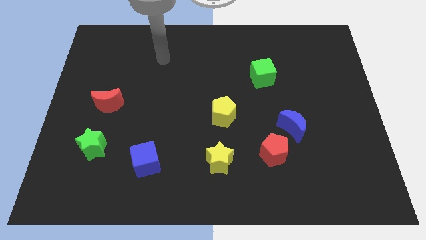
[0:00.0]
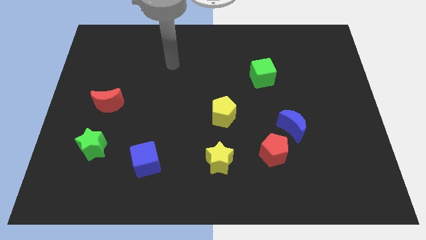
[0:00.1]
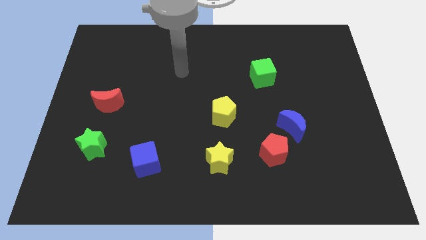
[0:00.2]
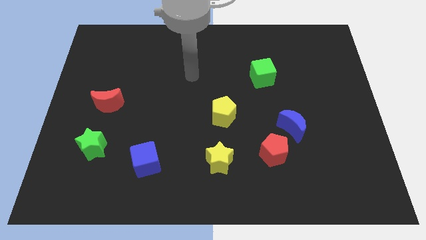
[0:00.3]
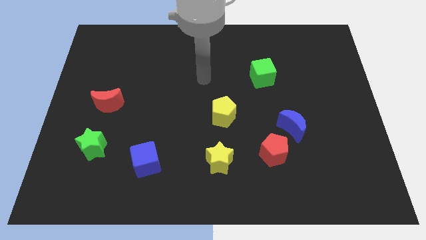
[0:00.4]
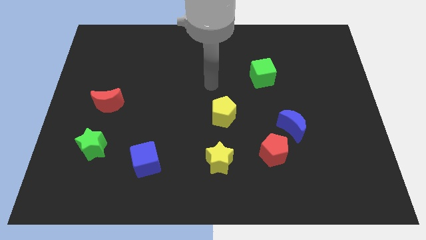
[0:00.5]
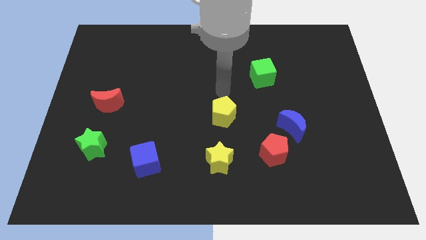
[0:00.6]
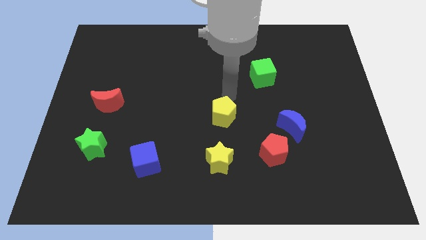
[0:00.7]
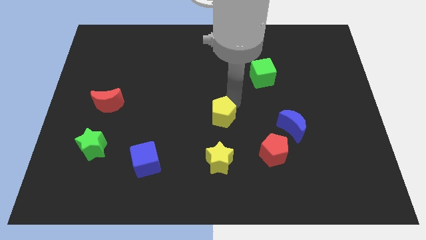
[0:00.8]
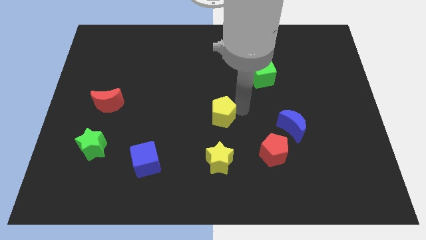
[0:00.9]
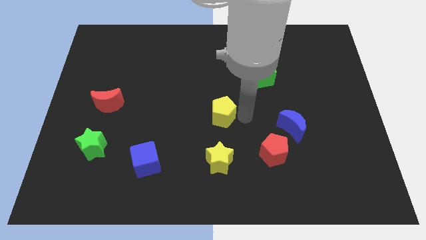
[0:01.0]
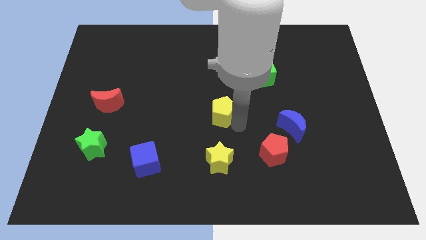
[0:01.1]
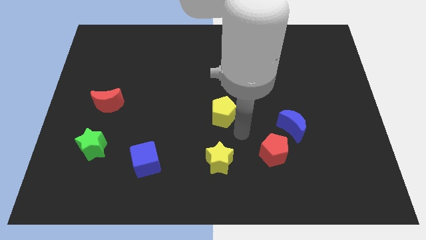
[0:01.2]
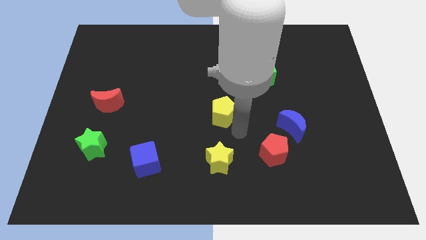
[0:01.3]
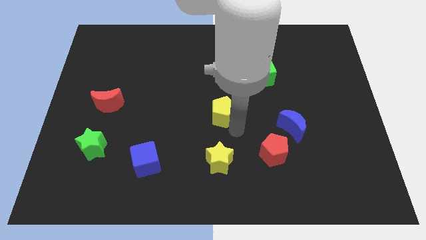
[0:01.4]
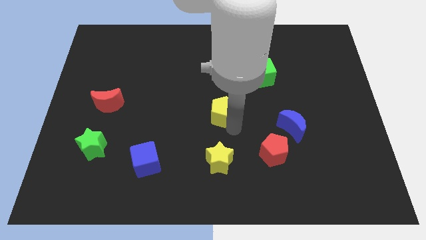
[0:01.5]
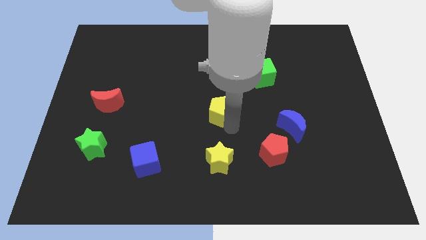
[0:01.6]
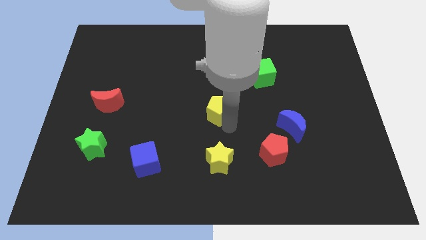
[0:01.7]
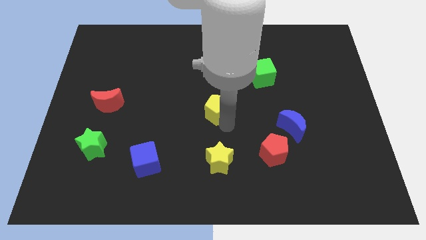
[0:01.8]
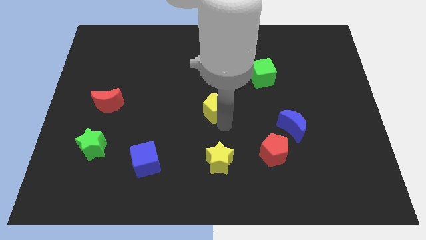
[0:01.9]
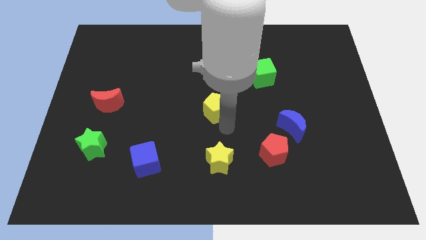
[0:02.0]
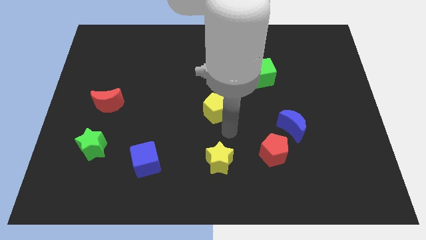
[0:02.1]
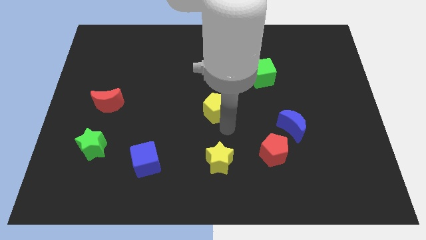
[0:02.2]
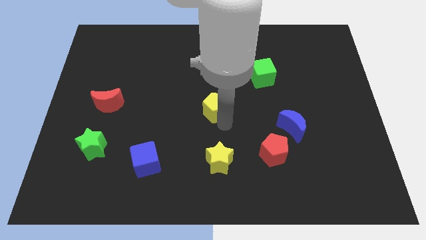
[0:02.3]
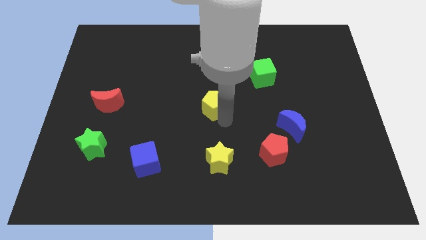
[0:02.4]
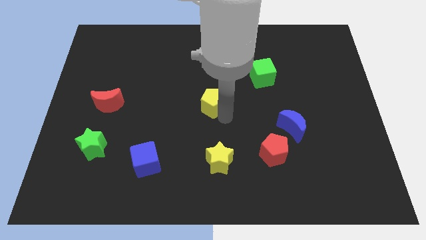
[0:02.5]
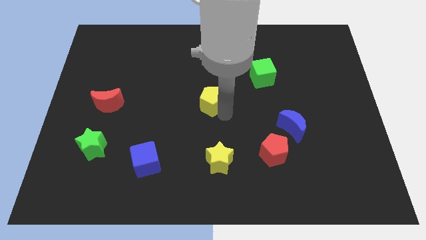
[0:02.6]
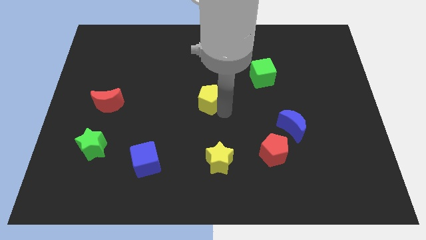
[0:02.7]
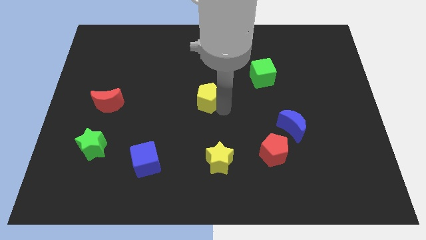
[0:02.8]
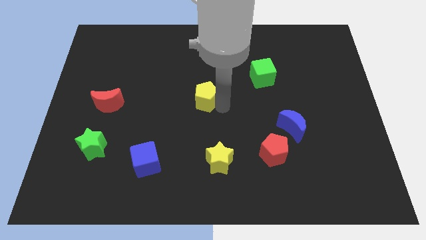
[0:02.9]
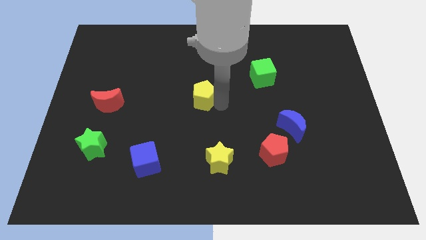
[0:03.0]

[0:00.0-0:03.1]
slide the yellow pentagon diagonally upwards and to the left a little bit

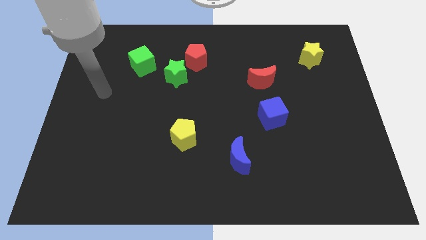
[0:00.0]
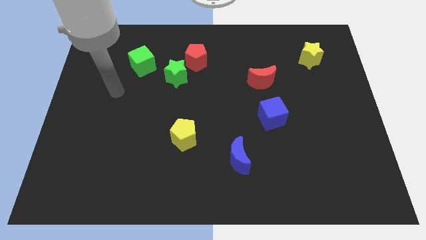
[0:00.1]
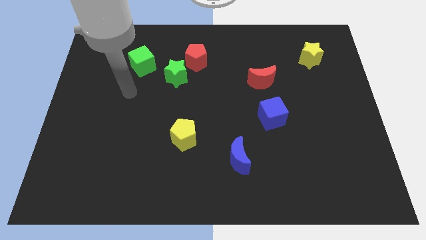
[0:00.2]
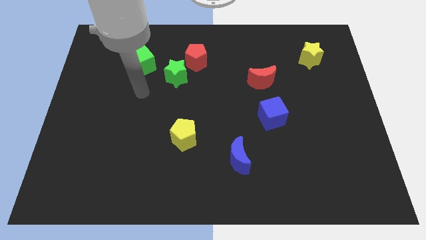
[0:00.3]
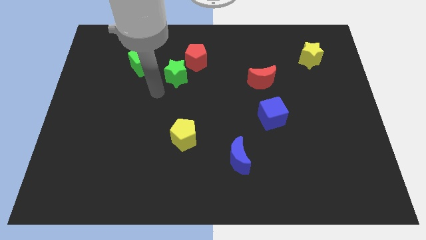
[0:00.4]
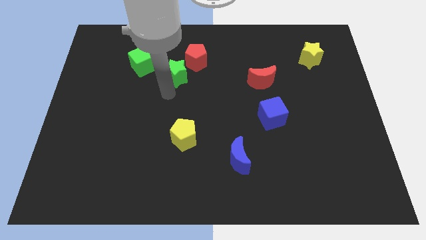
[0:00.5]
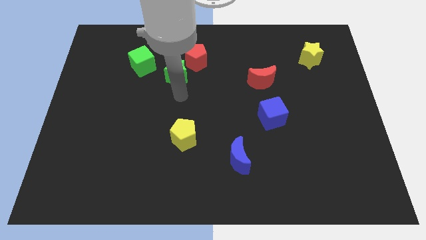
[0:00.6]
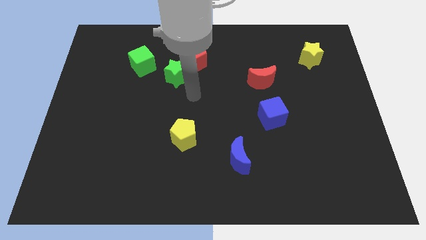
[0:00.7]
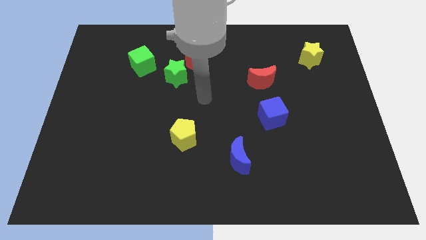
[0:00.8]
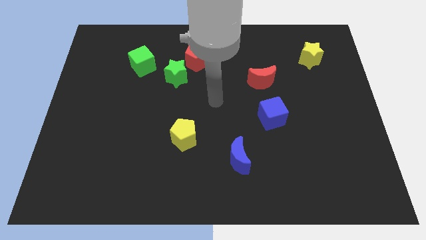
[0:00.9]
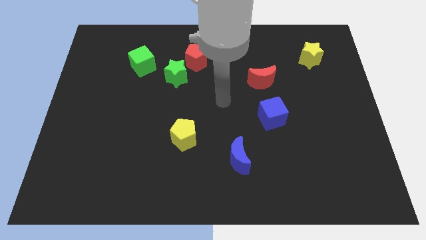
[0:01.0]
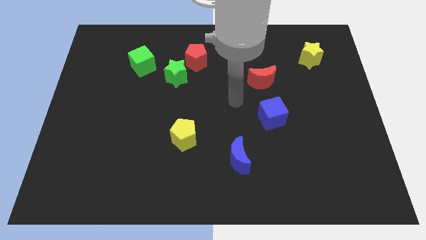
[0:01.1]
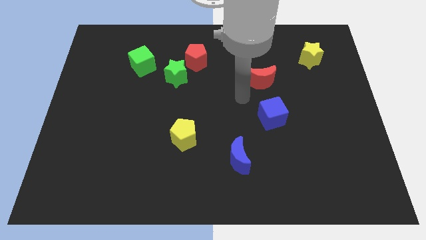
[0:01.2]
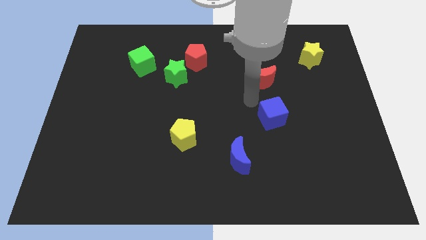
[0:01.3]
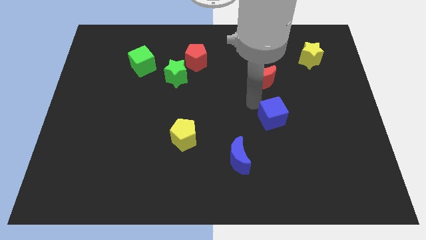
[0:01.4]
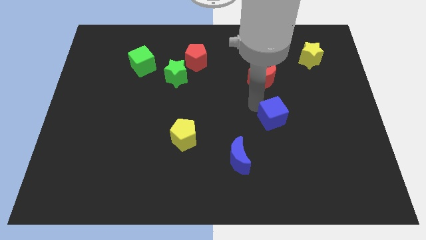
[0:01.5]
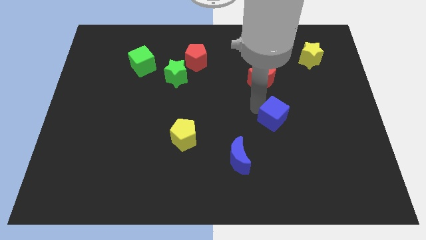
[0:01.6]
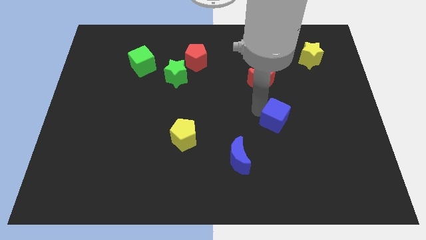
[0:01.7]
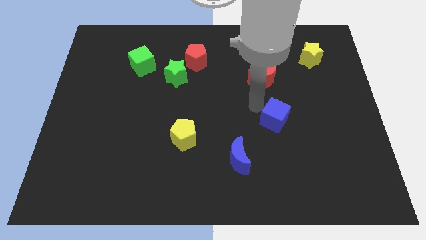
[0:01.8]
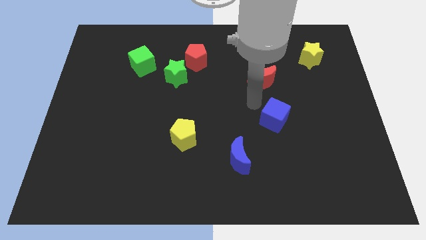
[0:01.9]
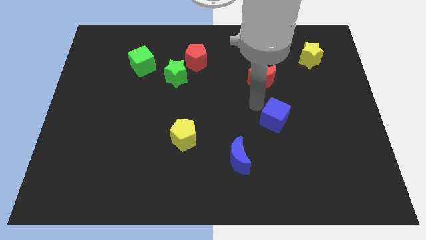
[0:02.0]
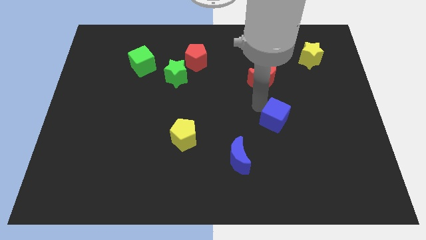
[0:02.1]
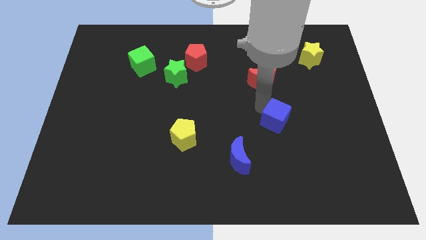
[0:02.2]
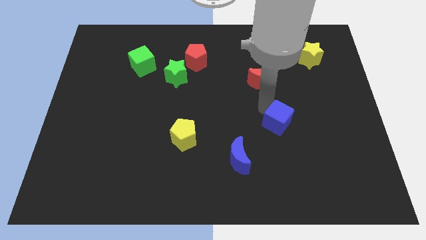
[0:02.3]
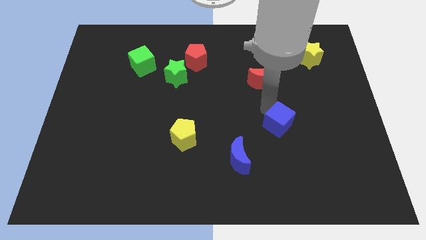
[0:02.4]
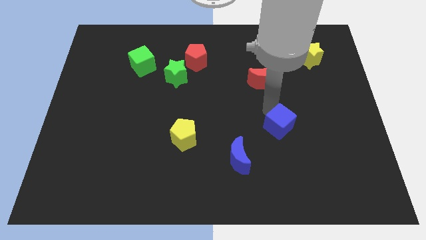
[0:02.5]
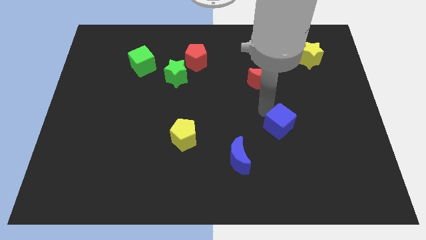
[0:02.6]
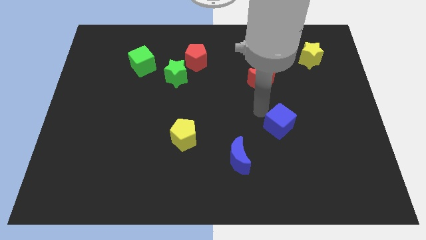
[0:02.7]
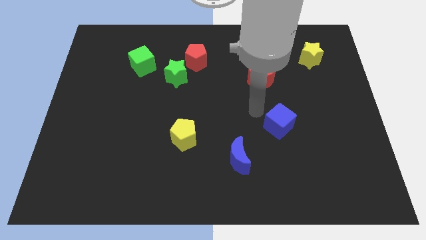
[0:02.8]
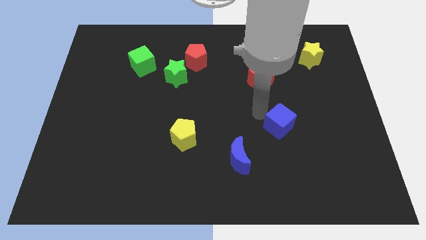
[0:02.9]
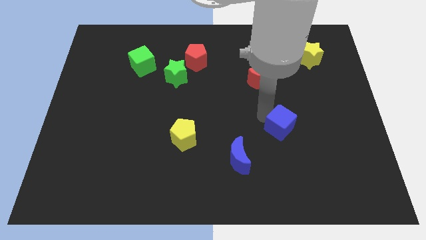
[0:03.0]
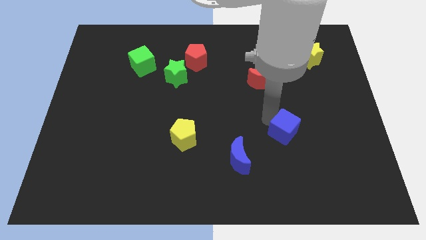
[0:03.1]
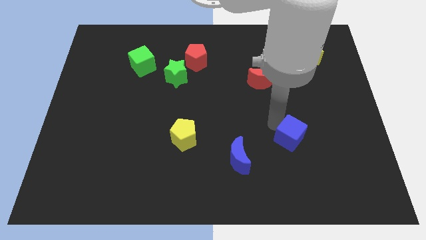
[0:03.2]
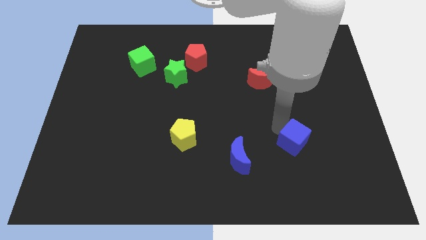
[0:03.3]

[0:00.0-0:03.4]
slide the blue cube a bit down and to the right diagonally

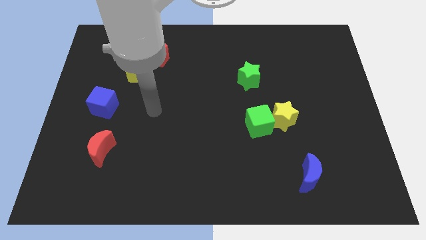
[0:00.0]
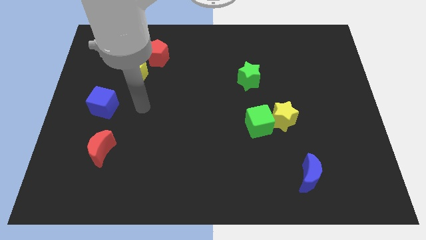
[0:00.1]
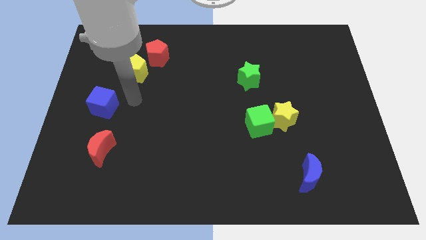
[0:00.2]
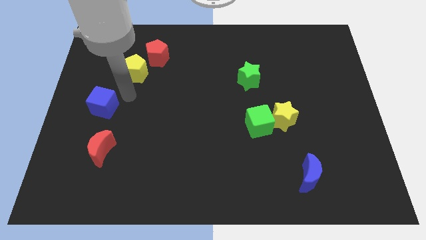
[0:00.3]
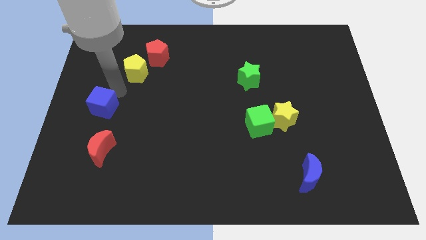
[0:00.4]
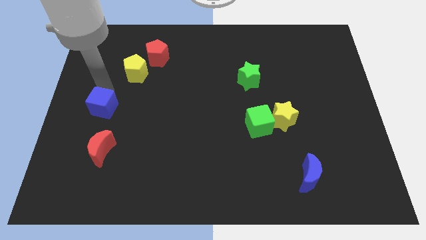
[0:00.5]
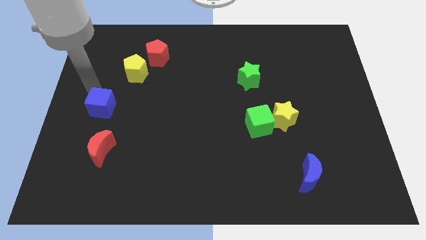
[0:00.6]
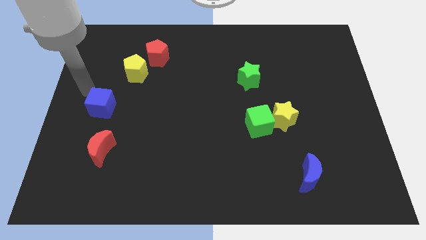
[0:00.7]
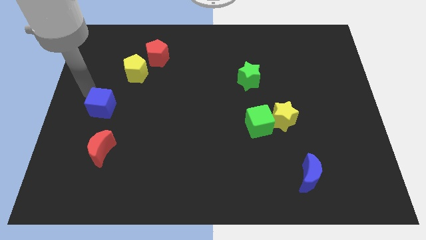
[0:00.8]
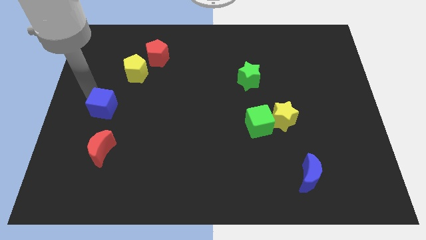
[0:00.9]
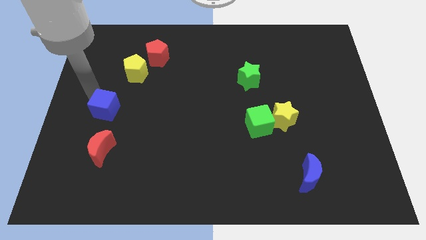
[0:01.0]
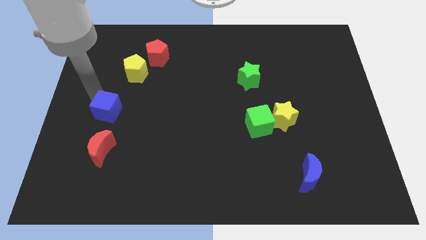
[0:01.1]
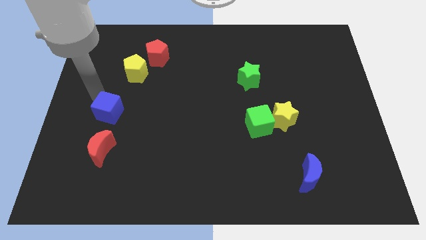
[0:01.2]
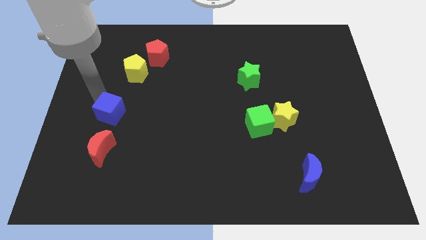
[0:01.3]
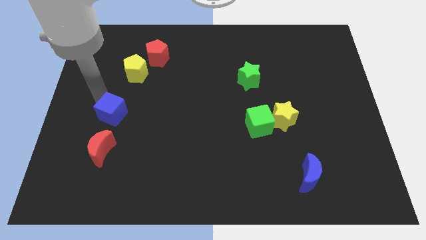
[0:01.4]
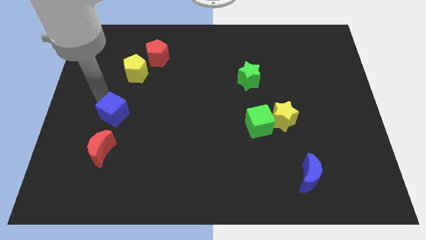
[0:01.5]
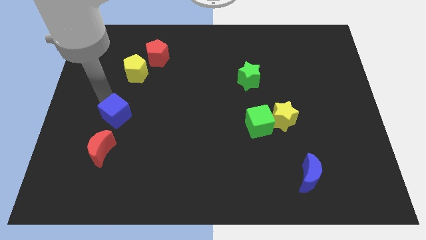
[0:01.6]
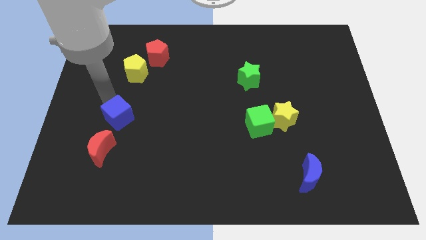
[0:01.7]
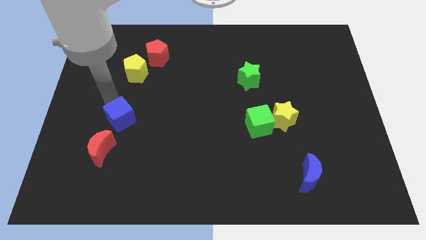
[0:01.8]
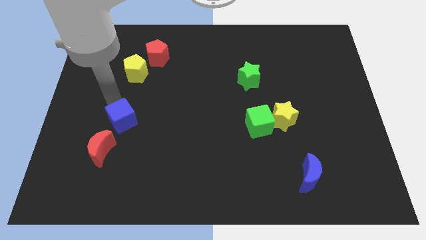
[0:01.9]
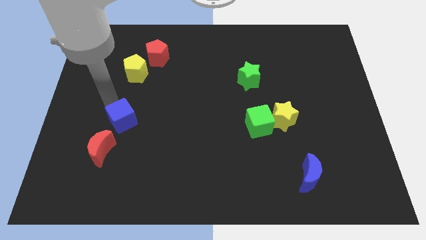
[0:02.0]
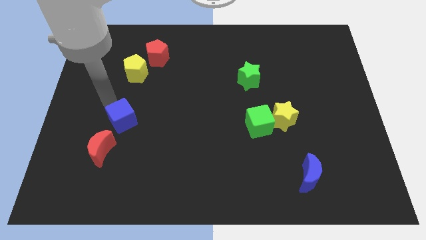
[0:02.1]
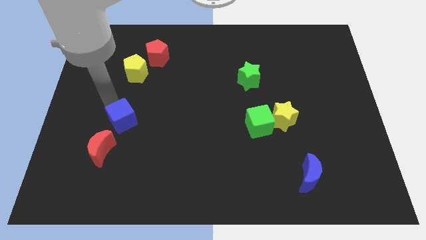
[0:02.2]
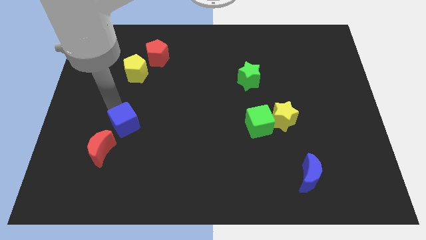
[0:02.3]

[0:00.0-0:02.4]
slightly slide the blue cube diagonally downwards and to the right
